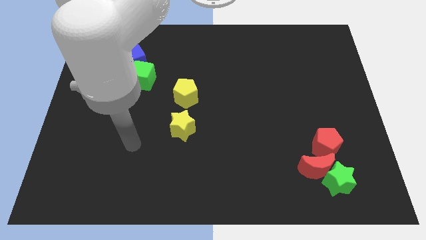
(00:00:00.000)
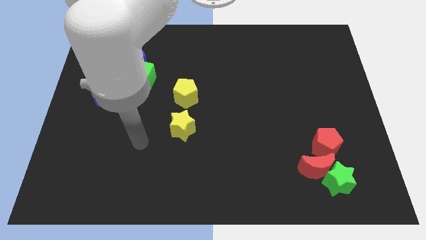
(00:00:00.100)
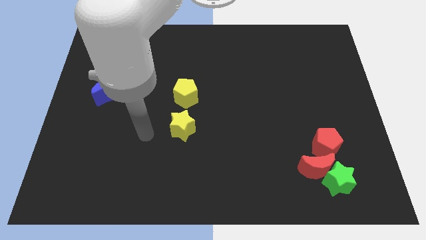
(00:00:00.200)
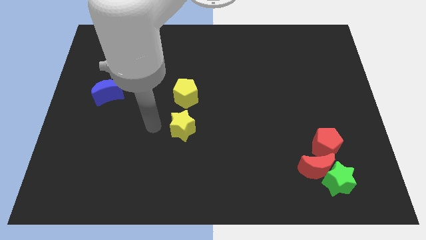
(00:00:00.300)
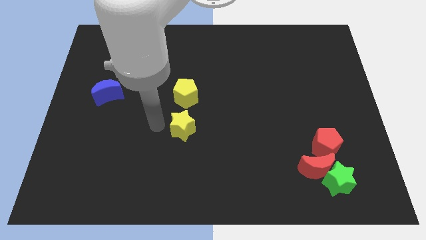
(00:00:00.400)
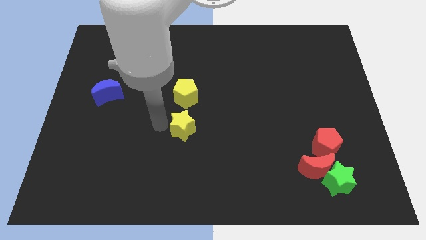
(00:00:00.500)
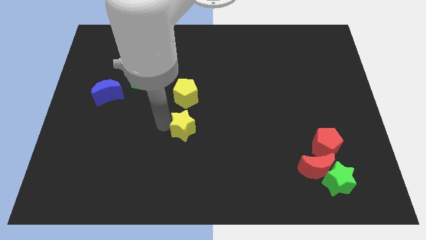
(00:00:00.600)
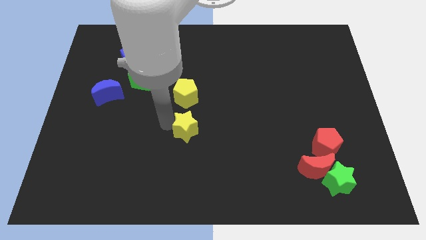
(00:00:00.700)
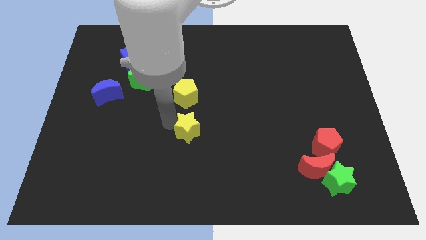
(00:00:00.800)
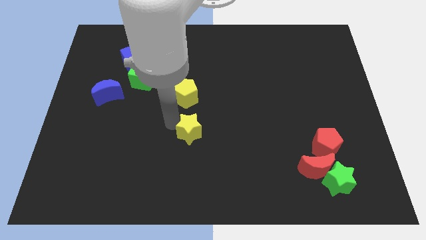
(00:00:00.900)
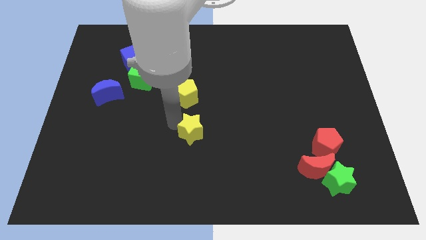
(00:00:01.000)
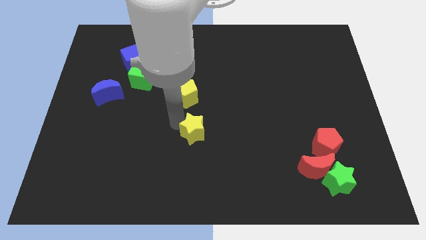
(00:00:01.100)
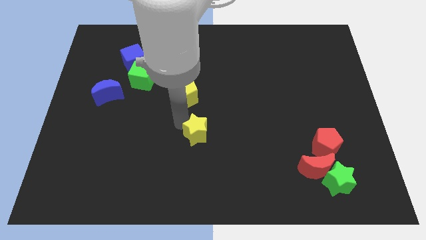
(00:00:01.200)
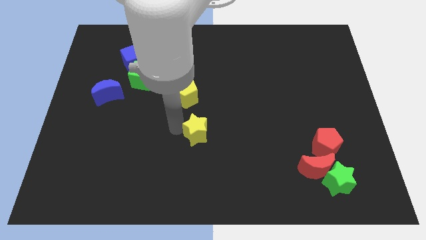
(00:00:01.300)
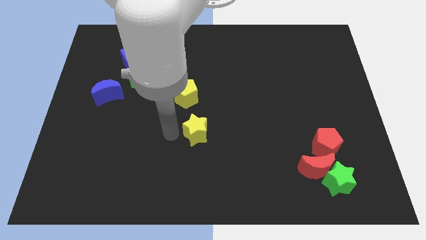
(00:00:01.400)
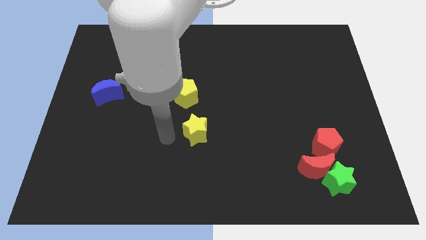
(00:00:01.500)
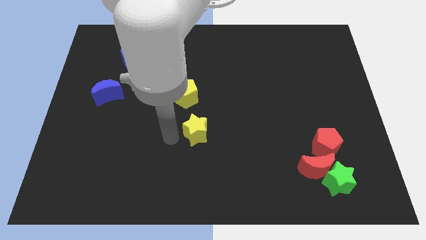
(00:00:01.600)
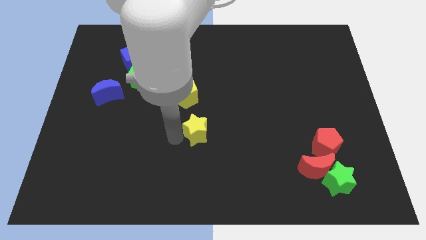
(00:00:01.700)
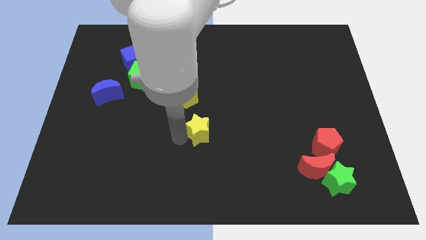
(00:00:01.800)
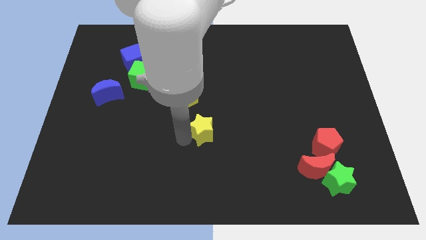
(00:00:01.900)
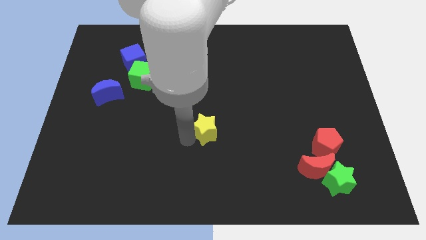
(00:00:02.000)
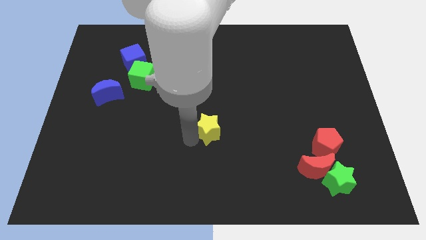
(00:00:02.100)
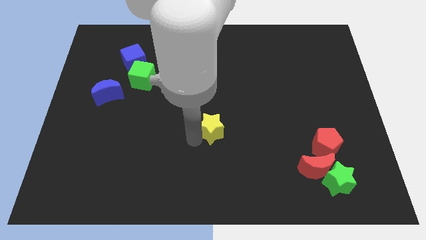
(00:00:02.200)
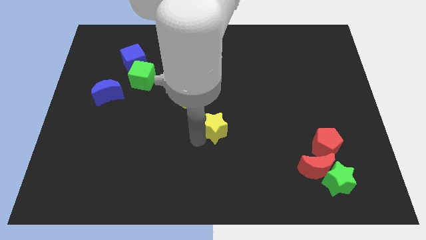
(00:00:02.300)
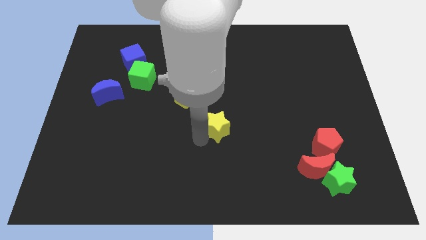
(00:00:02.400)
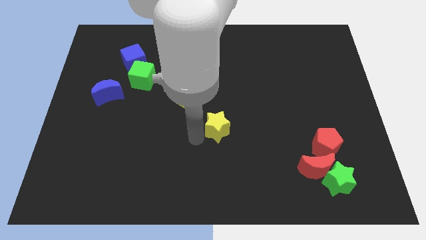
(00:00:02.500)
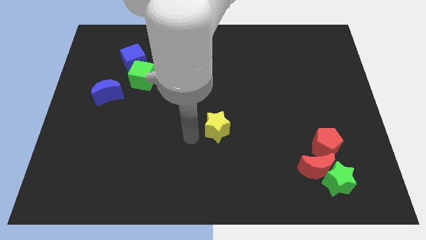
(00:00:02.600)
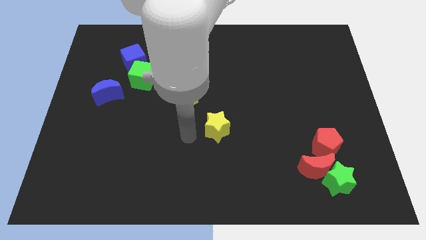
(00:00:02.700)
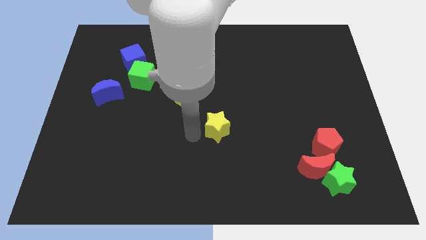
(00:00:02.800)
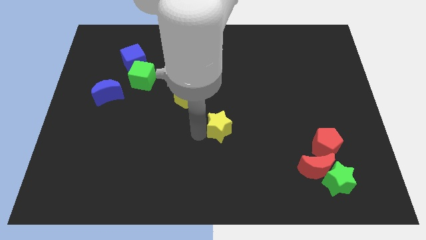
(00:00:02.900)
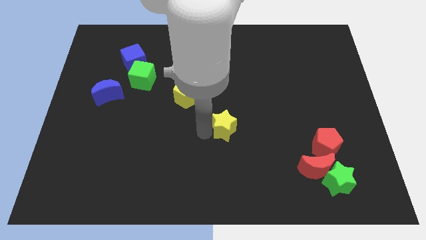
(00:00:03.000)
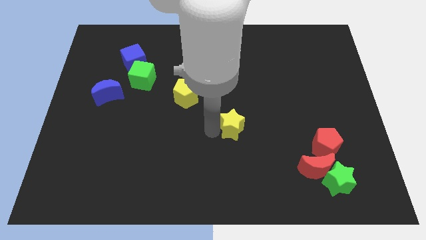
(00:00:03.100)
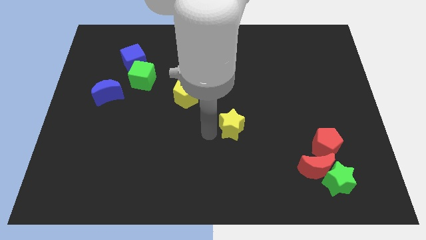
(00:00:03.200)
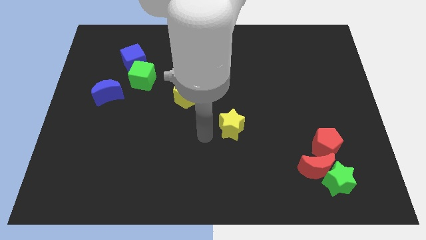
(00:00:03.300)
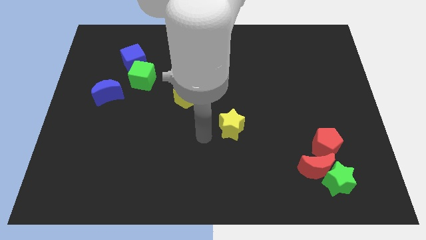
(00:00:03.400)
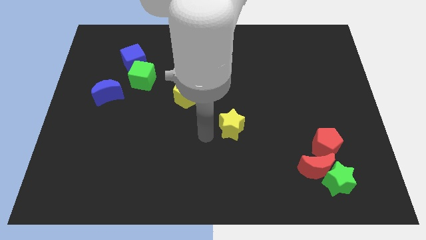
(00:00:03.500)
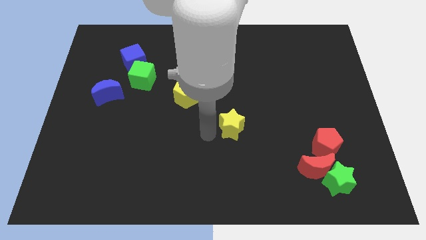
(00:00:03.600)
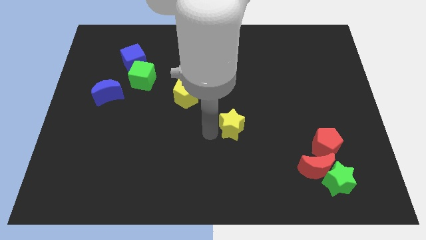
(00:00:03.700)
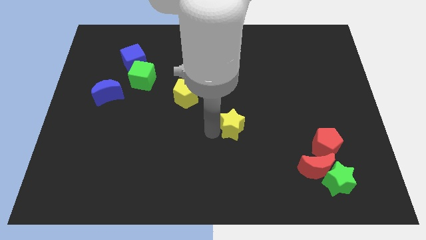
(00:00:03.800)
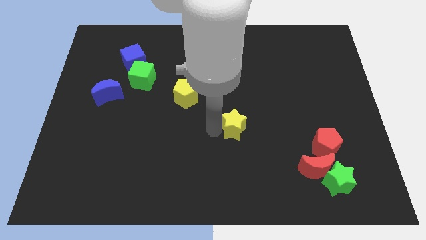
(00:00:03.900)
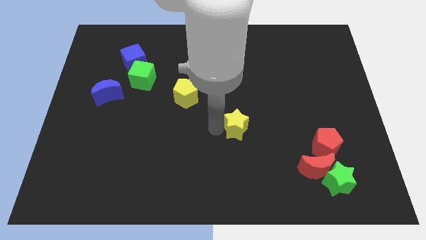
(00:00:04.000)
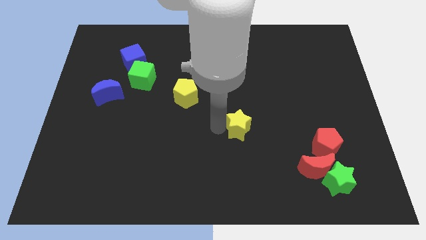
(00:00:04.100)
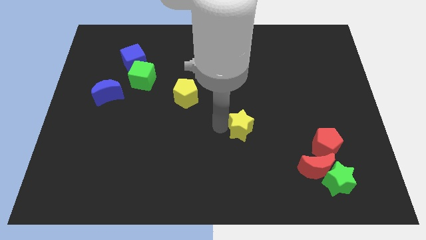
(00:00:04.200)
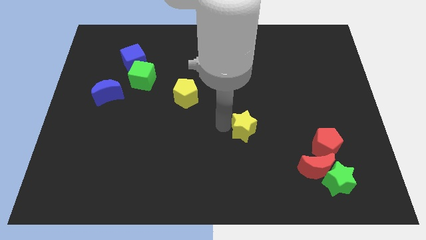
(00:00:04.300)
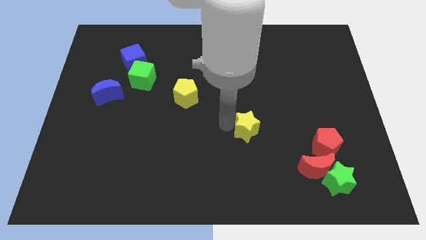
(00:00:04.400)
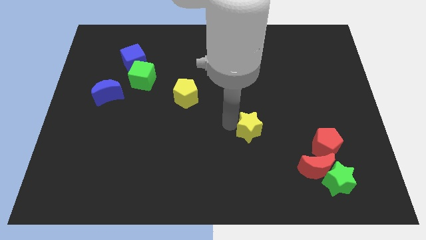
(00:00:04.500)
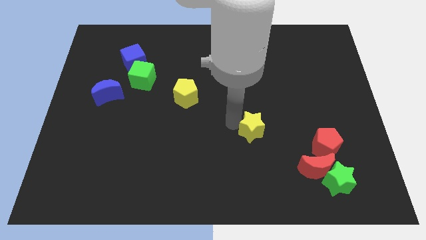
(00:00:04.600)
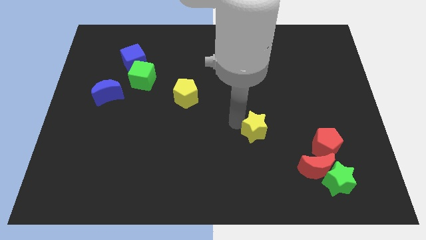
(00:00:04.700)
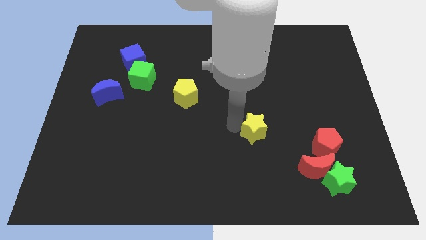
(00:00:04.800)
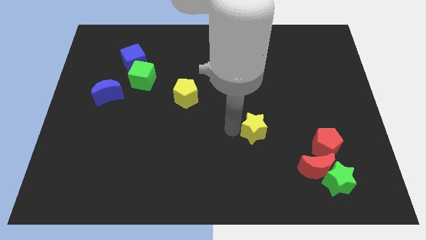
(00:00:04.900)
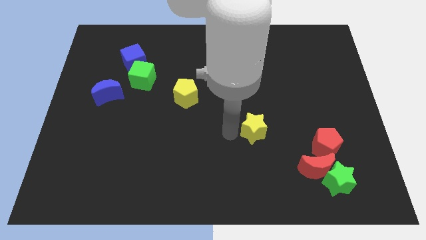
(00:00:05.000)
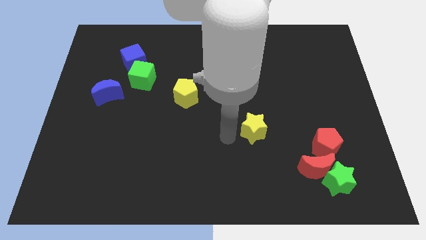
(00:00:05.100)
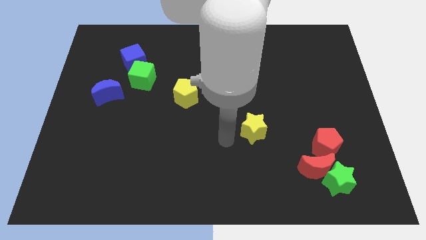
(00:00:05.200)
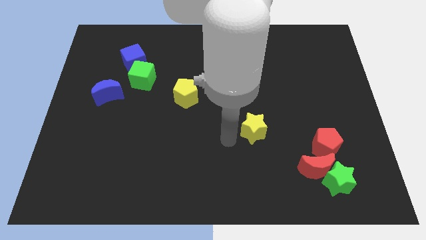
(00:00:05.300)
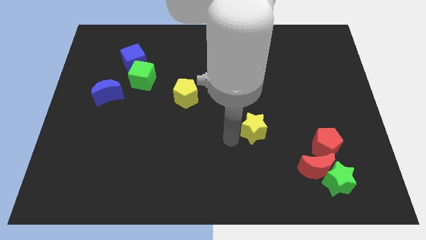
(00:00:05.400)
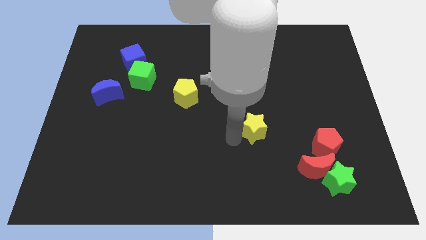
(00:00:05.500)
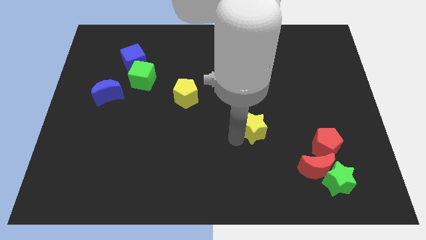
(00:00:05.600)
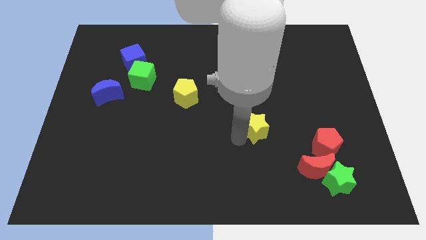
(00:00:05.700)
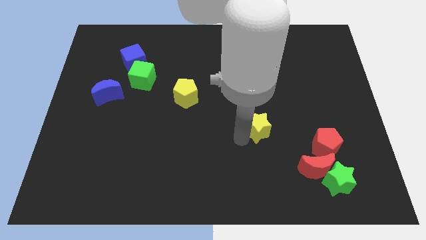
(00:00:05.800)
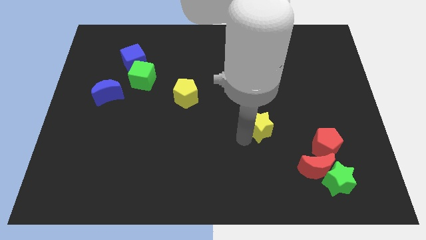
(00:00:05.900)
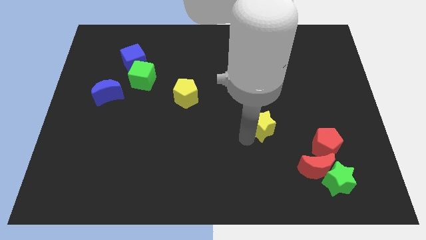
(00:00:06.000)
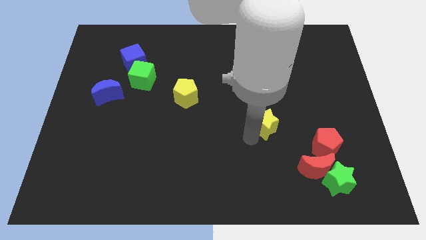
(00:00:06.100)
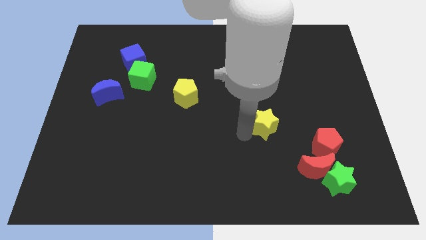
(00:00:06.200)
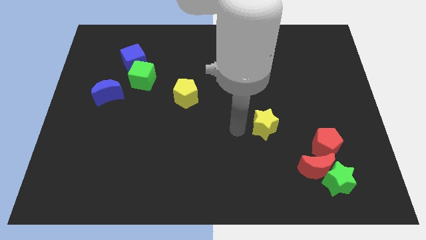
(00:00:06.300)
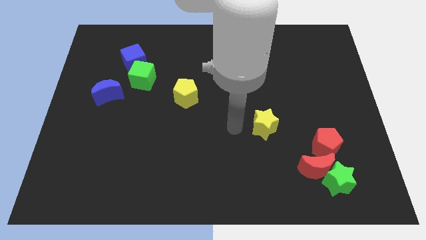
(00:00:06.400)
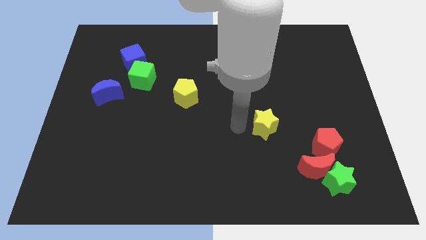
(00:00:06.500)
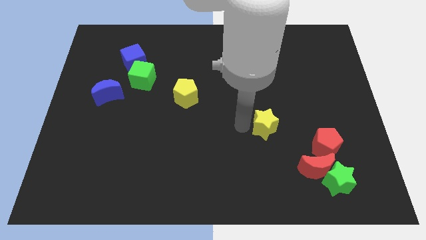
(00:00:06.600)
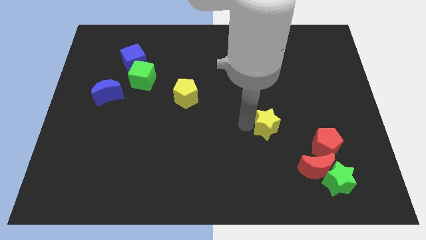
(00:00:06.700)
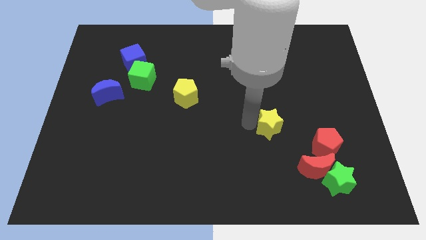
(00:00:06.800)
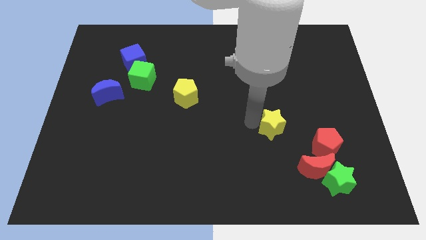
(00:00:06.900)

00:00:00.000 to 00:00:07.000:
slide the yellow star to the right

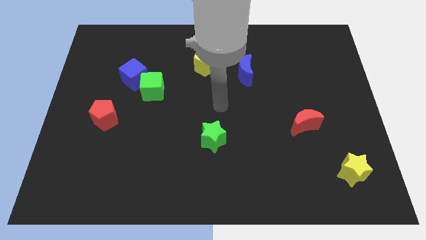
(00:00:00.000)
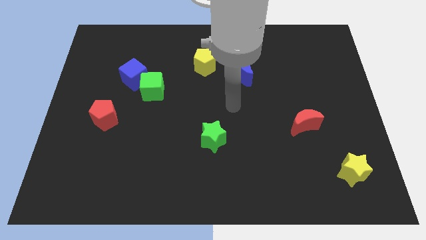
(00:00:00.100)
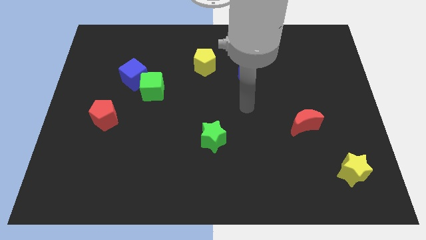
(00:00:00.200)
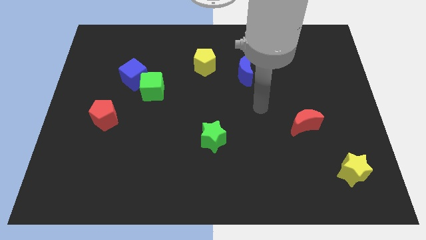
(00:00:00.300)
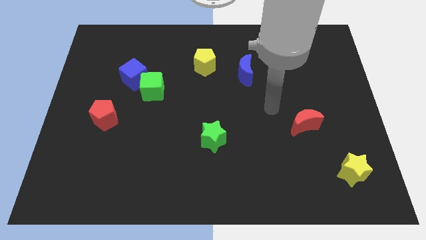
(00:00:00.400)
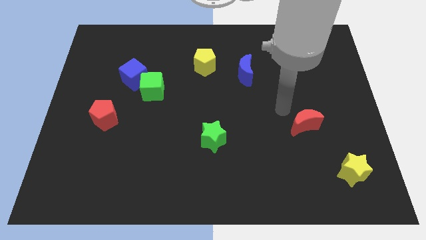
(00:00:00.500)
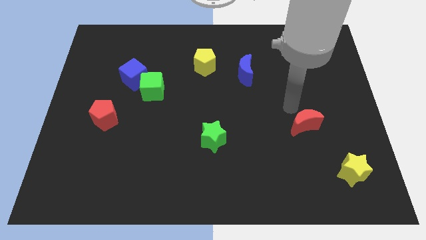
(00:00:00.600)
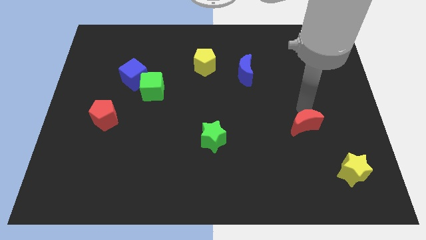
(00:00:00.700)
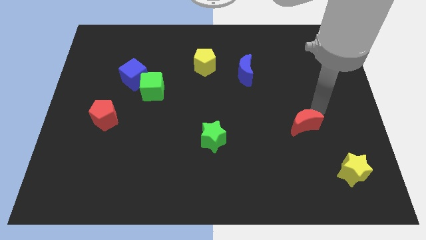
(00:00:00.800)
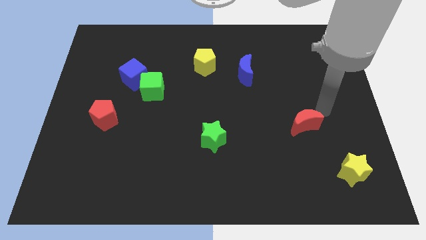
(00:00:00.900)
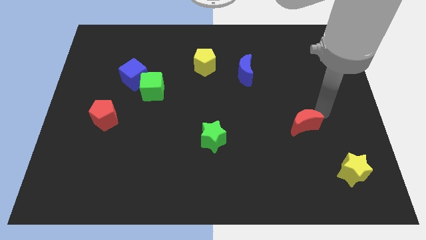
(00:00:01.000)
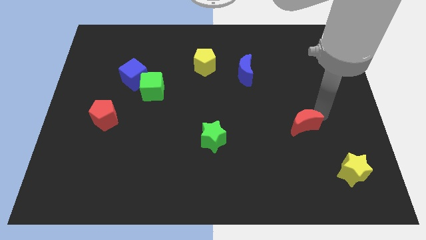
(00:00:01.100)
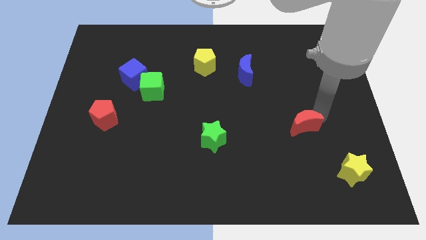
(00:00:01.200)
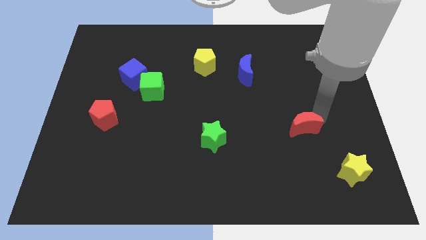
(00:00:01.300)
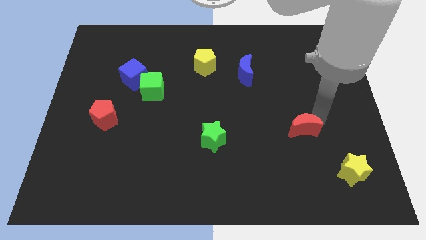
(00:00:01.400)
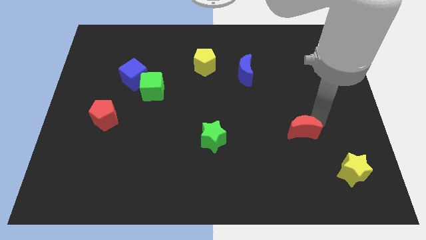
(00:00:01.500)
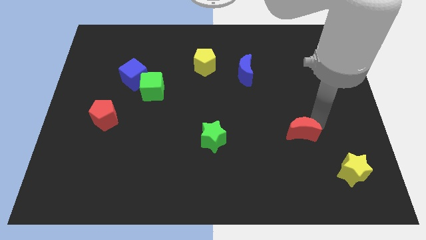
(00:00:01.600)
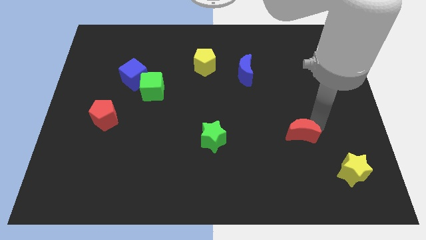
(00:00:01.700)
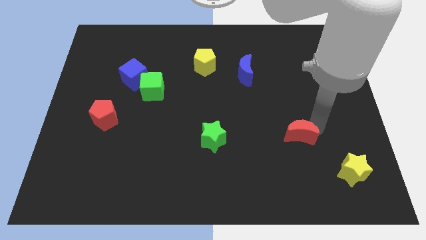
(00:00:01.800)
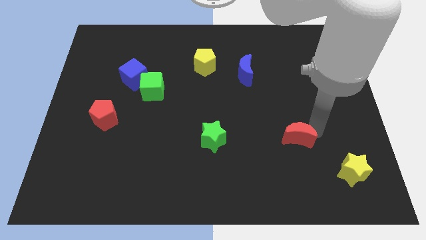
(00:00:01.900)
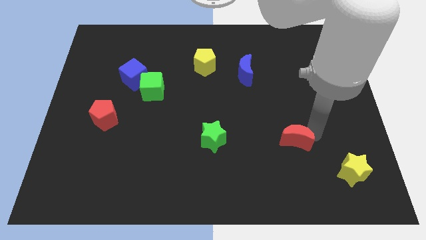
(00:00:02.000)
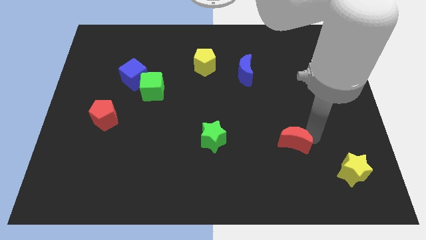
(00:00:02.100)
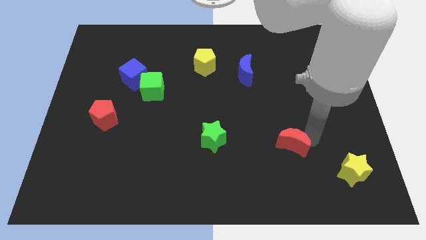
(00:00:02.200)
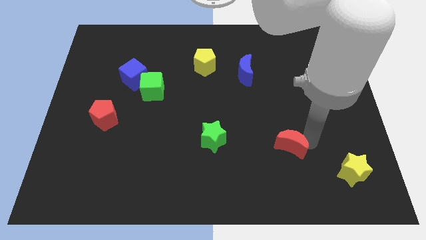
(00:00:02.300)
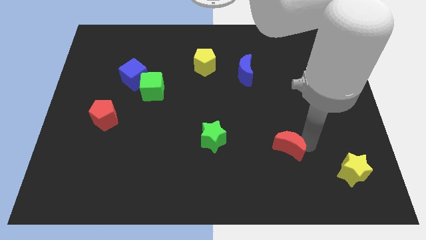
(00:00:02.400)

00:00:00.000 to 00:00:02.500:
slide the red moon somewhat down and then to the left
